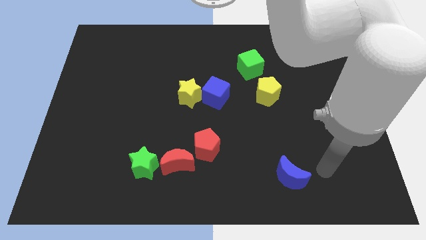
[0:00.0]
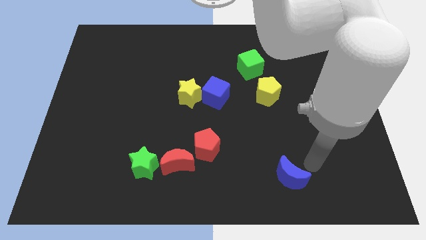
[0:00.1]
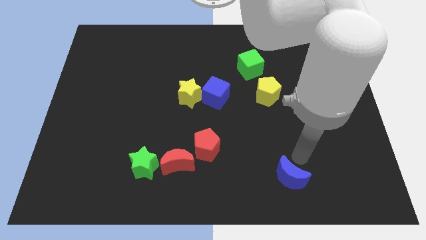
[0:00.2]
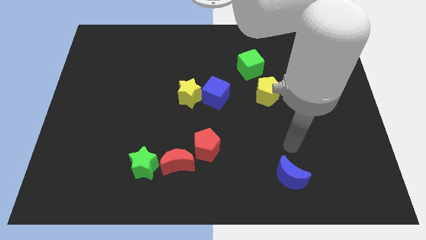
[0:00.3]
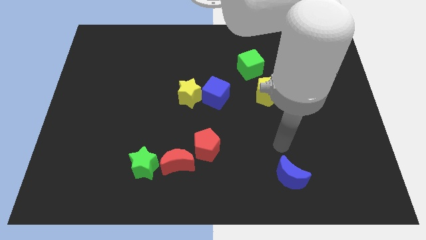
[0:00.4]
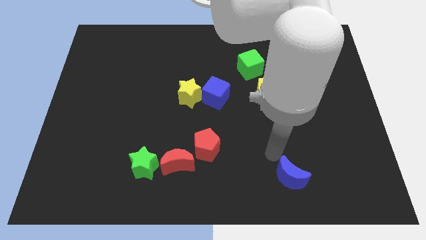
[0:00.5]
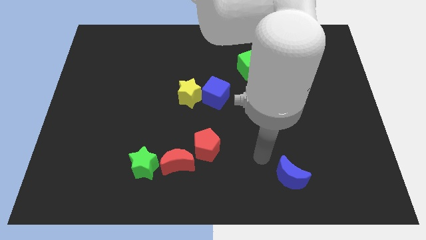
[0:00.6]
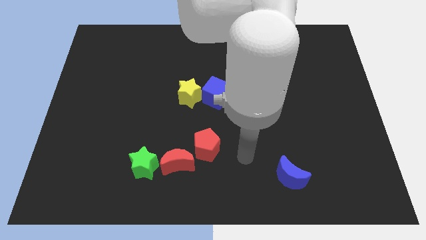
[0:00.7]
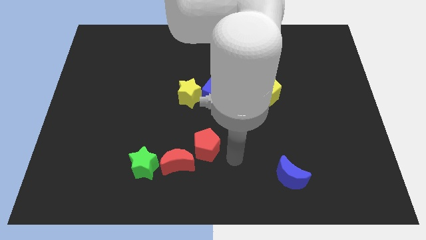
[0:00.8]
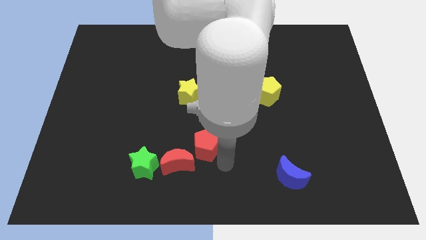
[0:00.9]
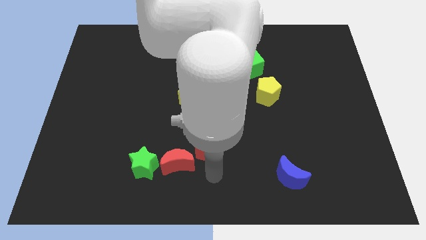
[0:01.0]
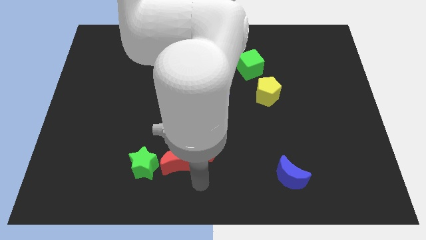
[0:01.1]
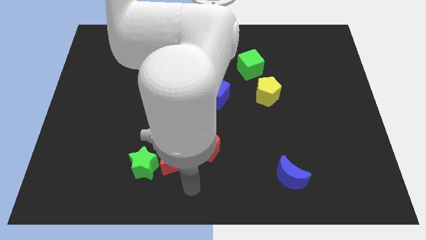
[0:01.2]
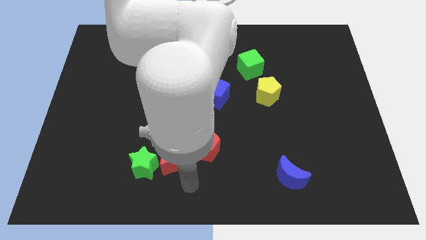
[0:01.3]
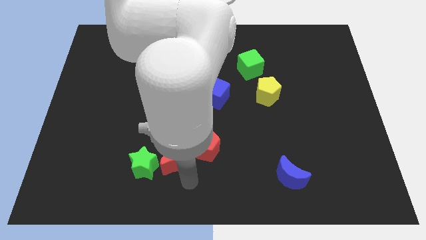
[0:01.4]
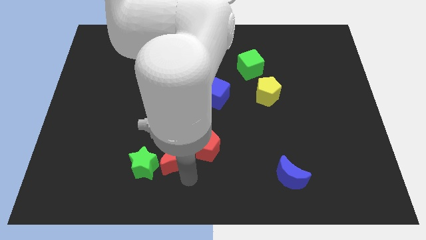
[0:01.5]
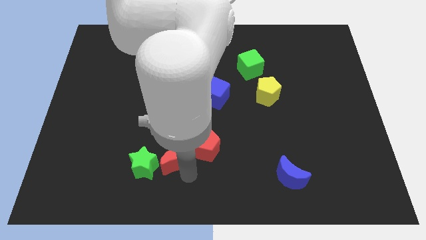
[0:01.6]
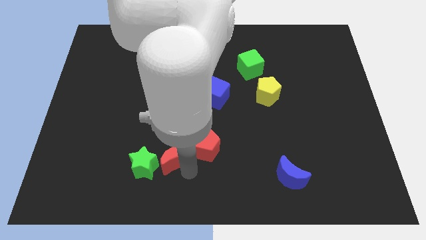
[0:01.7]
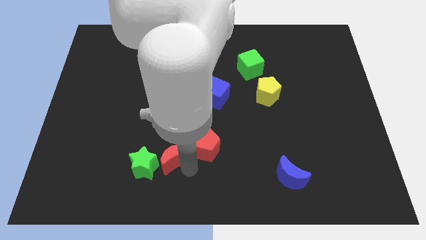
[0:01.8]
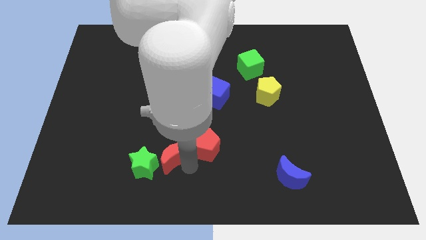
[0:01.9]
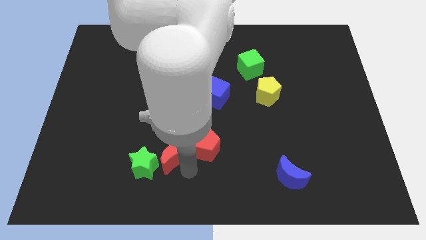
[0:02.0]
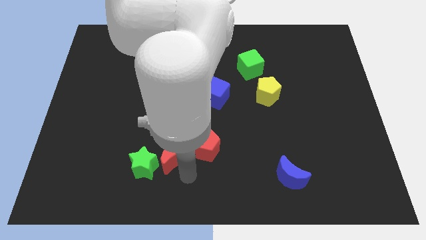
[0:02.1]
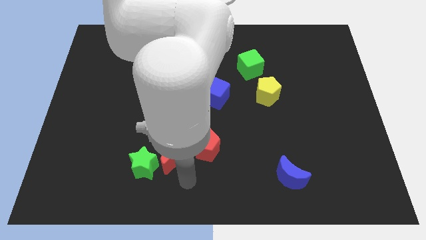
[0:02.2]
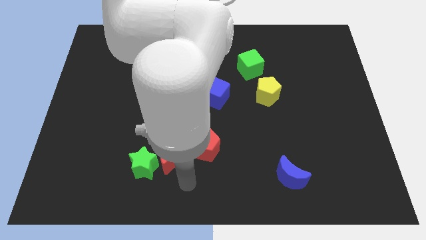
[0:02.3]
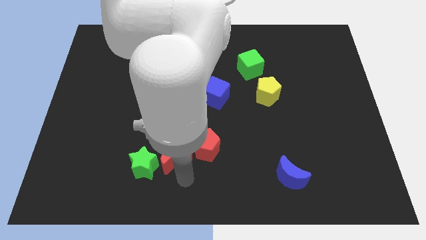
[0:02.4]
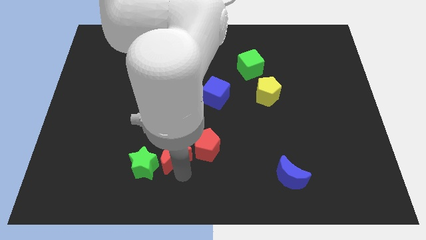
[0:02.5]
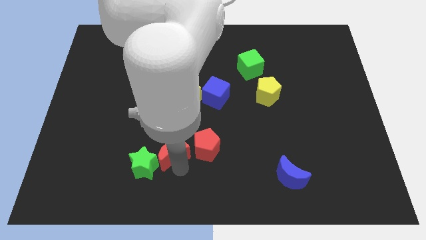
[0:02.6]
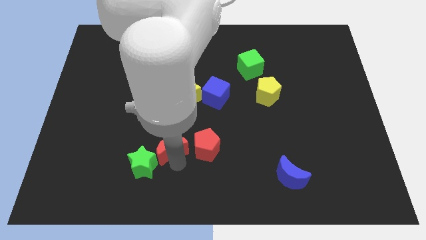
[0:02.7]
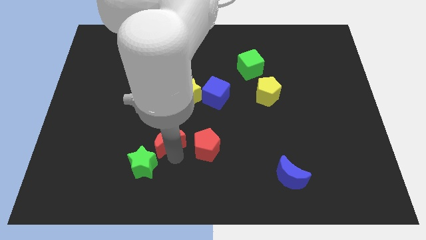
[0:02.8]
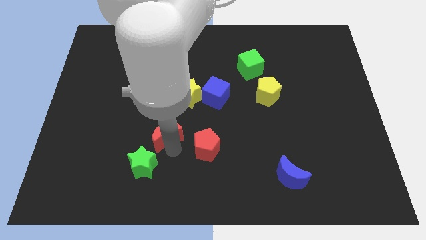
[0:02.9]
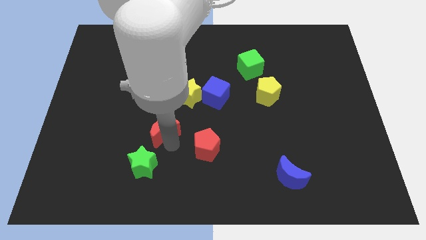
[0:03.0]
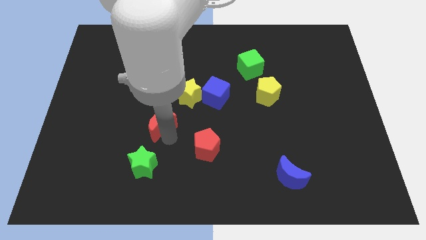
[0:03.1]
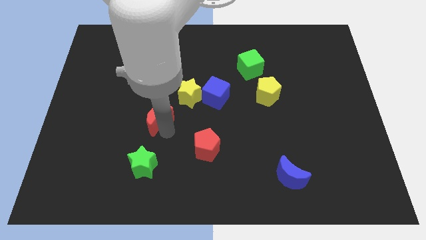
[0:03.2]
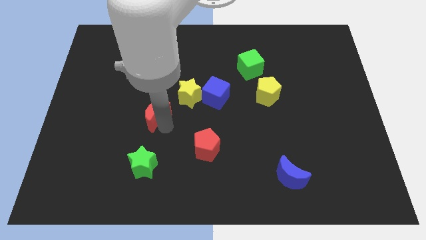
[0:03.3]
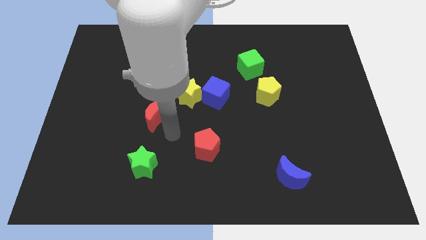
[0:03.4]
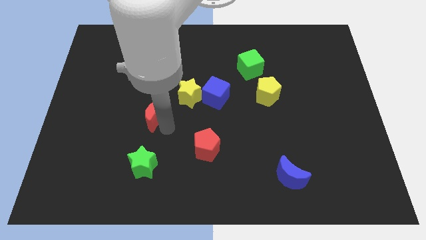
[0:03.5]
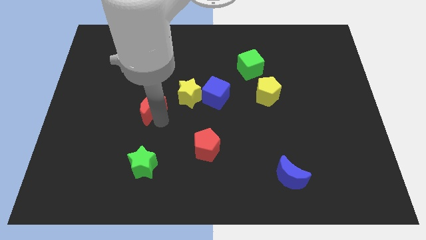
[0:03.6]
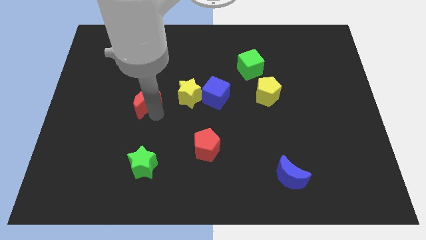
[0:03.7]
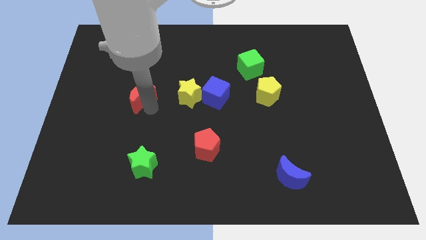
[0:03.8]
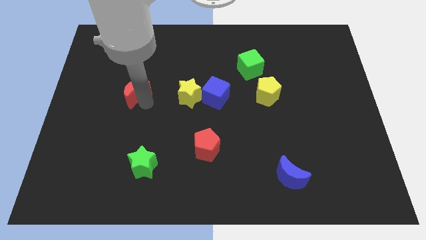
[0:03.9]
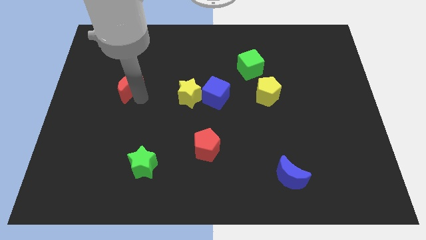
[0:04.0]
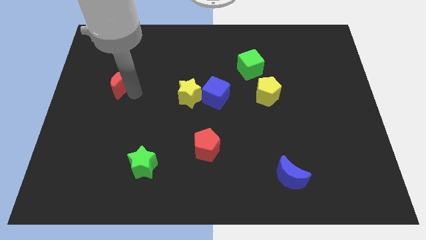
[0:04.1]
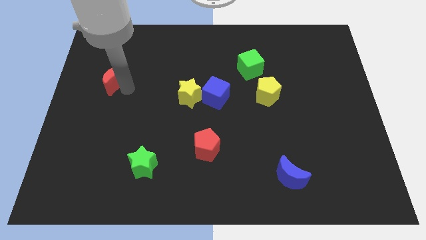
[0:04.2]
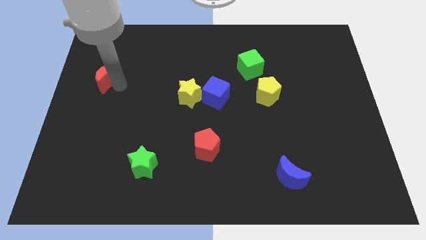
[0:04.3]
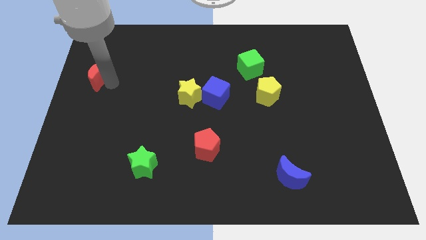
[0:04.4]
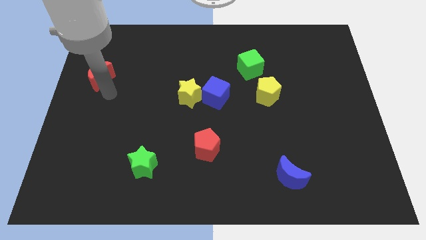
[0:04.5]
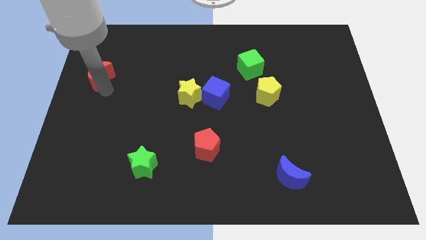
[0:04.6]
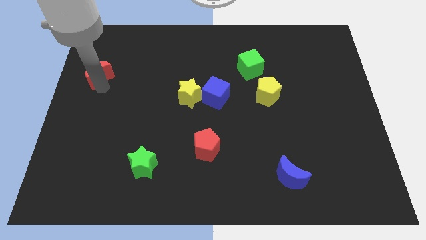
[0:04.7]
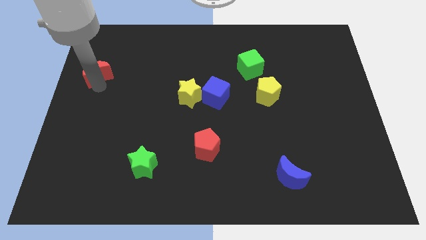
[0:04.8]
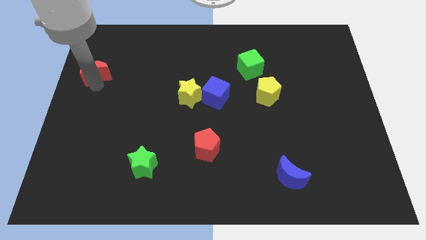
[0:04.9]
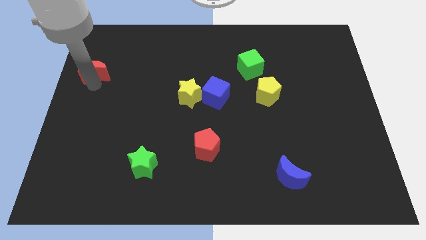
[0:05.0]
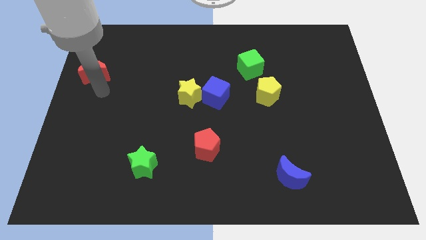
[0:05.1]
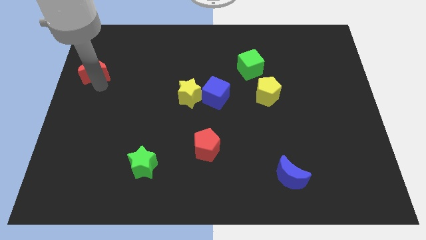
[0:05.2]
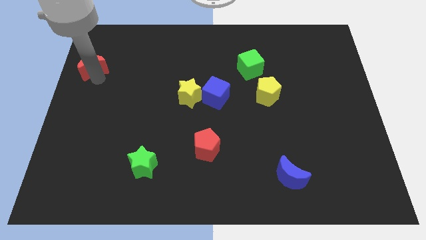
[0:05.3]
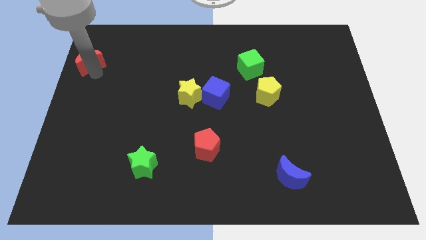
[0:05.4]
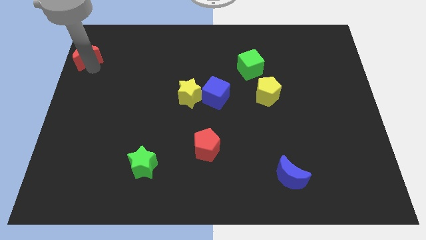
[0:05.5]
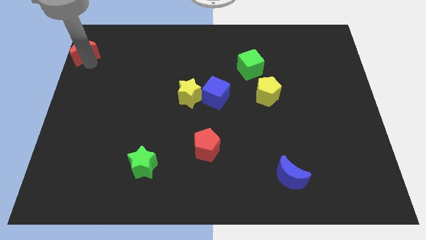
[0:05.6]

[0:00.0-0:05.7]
slide the red moon to the top left of the board

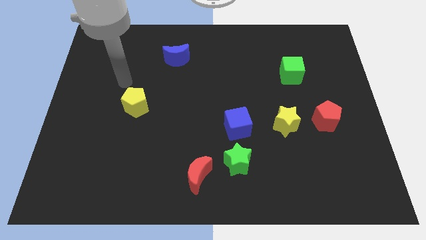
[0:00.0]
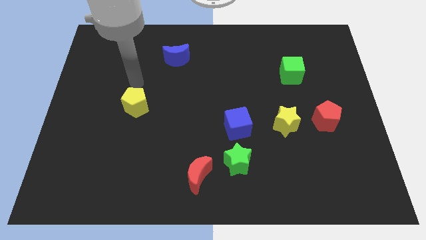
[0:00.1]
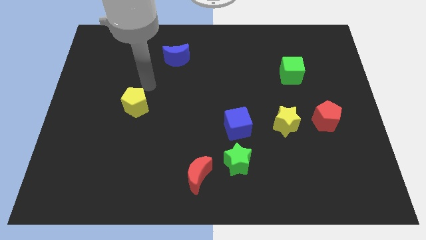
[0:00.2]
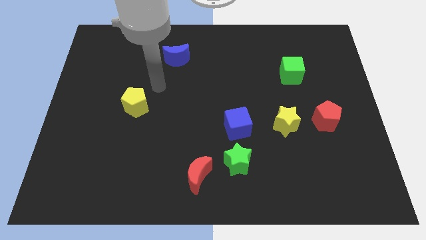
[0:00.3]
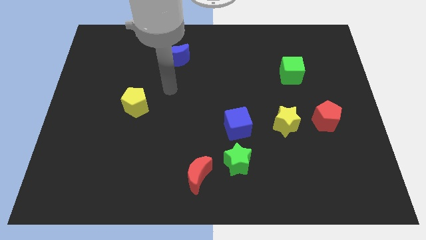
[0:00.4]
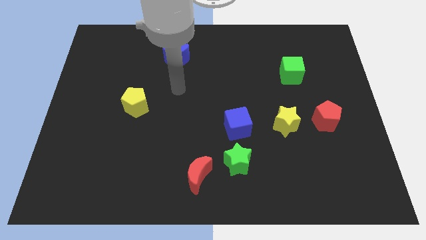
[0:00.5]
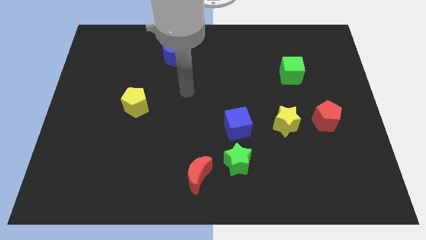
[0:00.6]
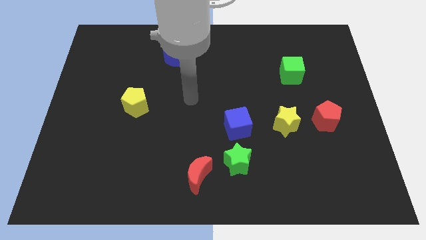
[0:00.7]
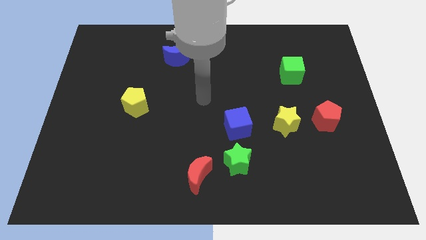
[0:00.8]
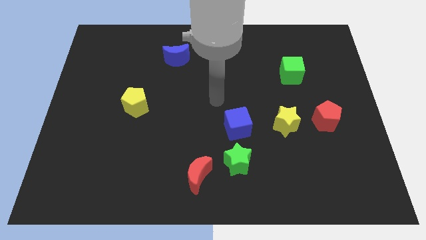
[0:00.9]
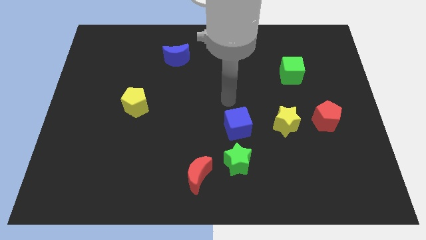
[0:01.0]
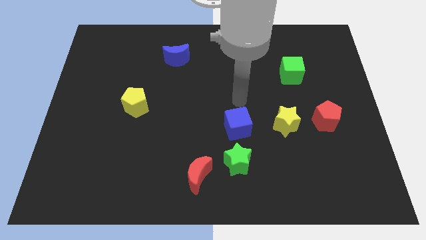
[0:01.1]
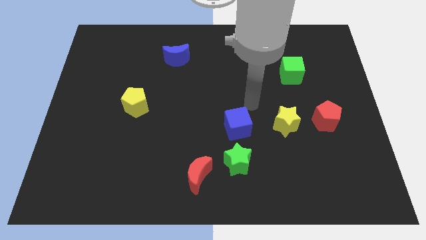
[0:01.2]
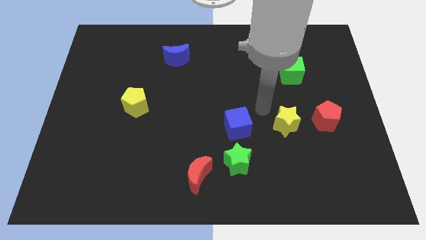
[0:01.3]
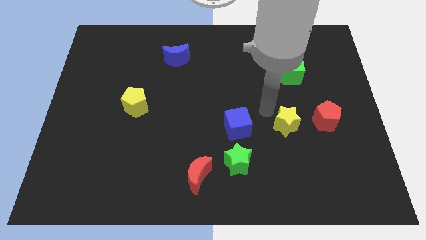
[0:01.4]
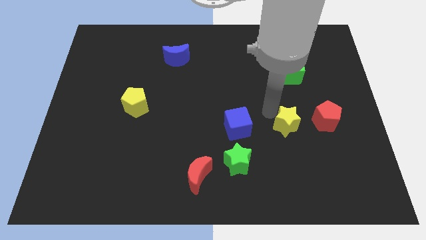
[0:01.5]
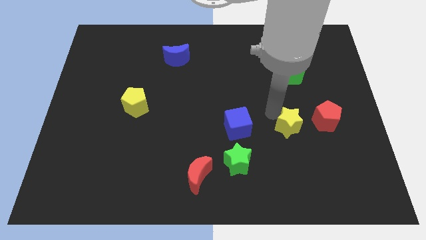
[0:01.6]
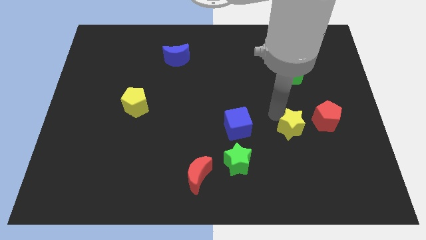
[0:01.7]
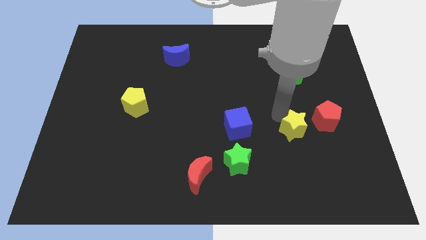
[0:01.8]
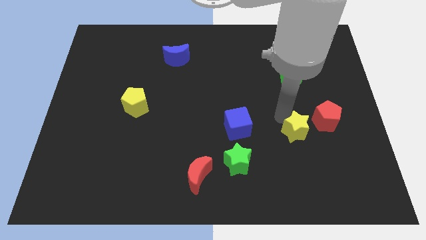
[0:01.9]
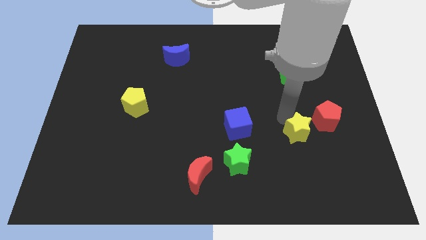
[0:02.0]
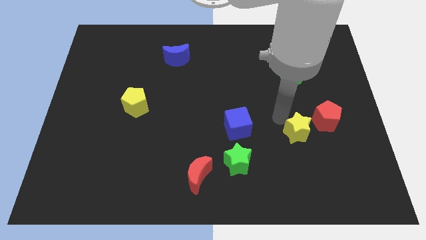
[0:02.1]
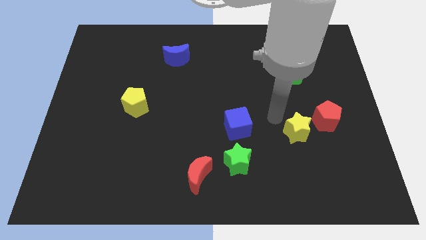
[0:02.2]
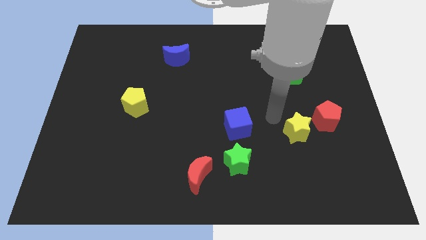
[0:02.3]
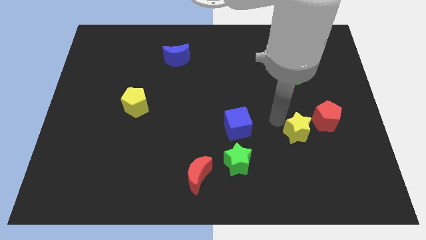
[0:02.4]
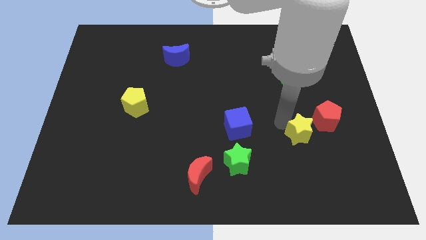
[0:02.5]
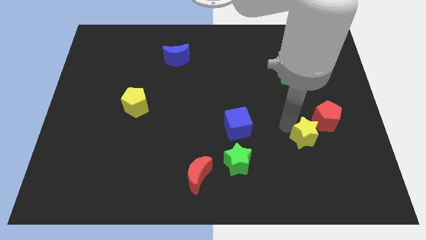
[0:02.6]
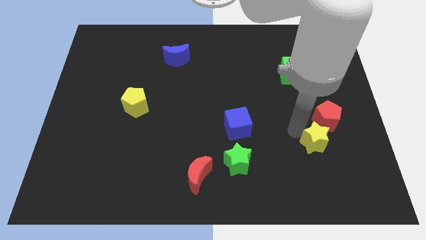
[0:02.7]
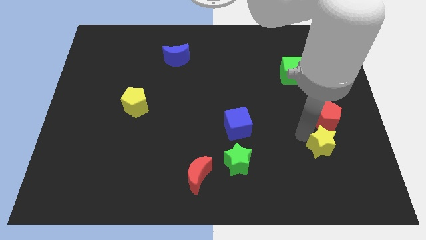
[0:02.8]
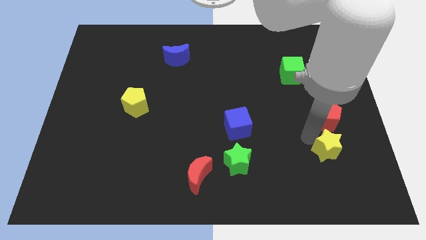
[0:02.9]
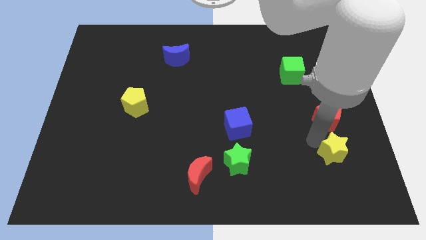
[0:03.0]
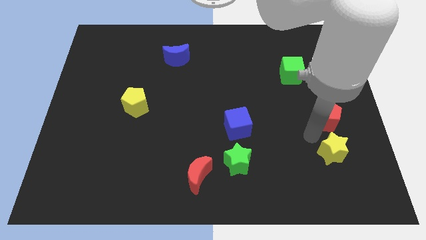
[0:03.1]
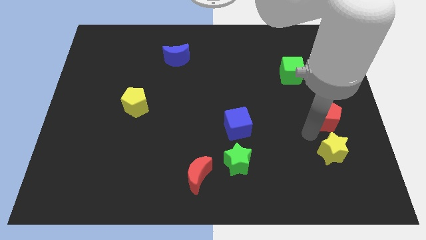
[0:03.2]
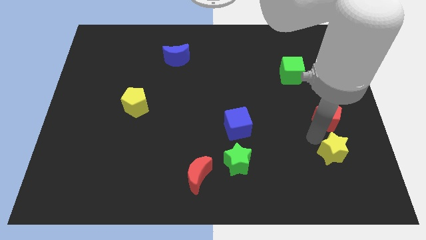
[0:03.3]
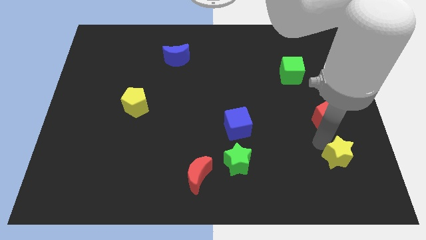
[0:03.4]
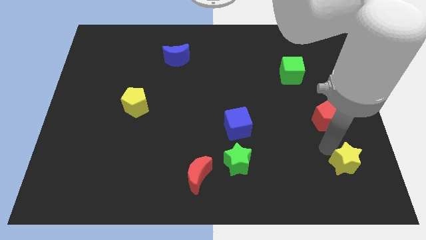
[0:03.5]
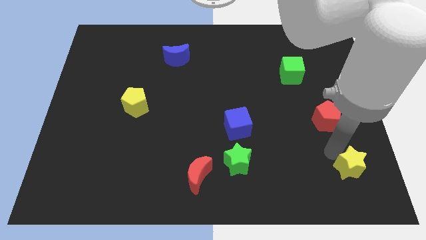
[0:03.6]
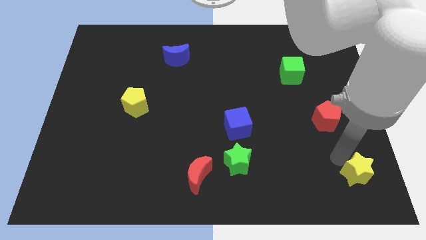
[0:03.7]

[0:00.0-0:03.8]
move the yellow star to the lower right corner
